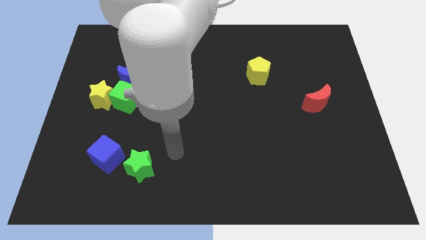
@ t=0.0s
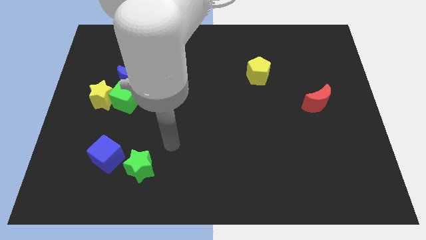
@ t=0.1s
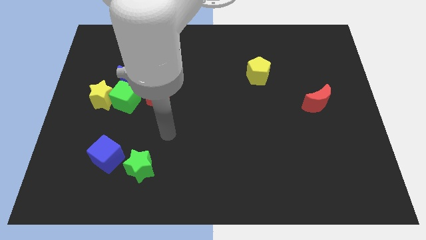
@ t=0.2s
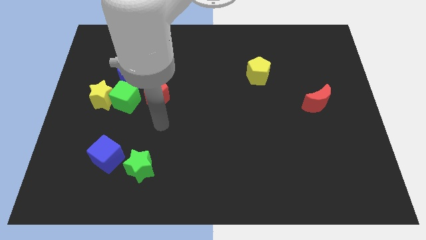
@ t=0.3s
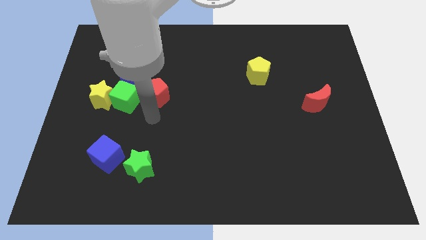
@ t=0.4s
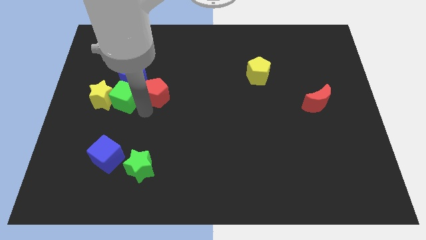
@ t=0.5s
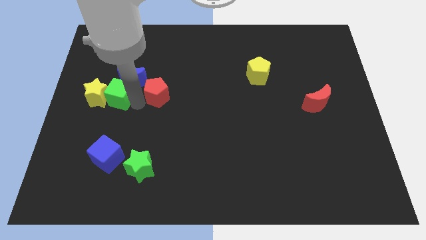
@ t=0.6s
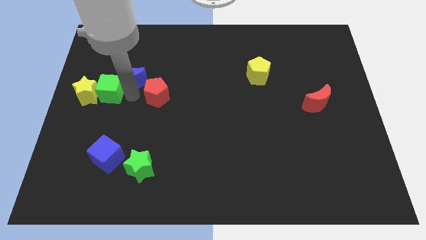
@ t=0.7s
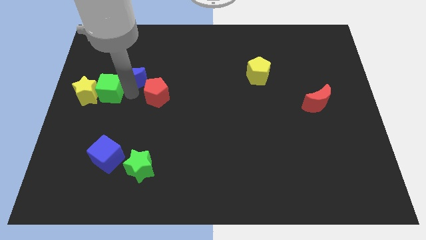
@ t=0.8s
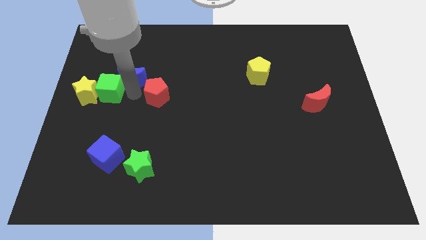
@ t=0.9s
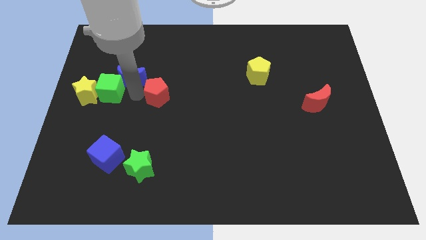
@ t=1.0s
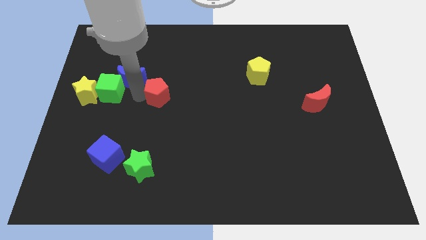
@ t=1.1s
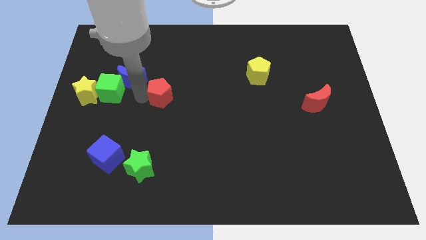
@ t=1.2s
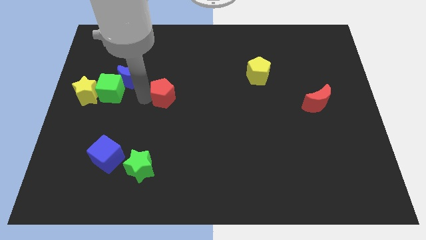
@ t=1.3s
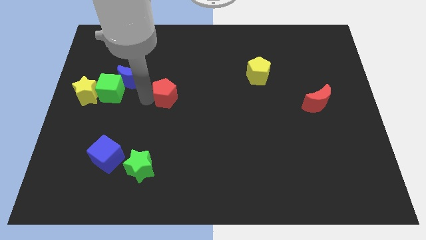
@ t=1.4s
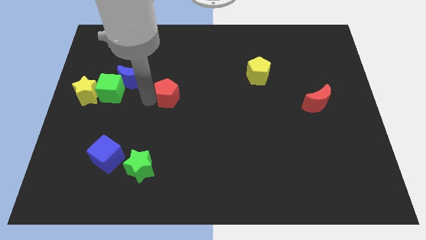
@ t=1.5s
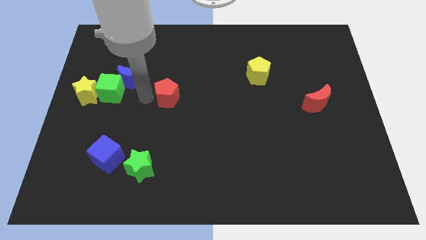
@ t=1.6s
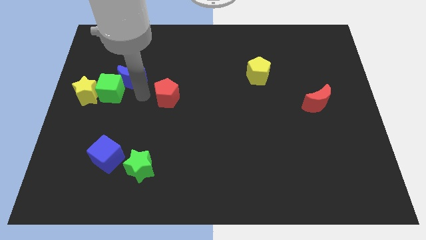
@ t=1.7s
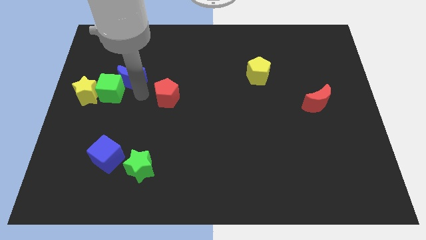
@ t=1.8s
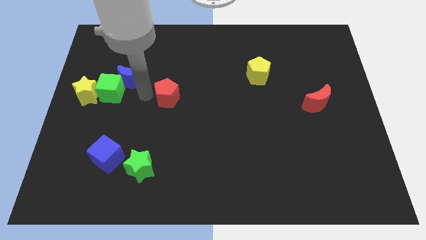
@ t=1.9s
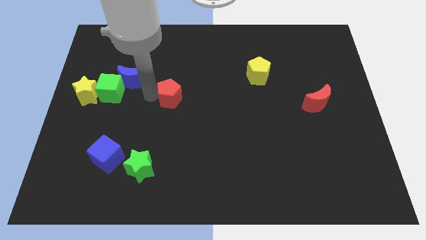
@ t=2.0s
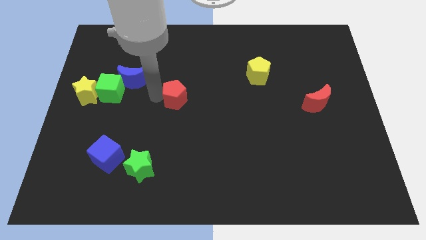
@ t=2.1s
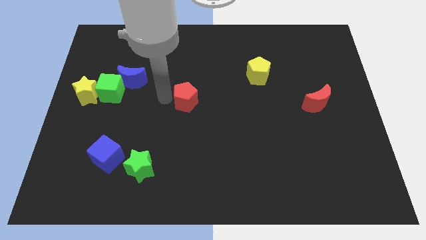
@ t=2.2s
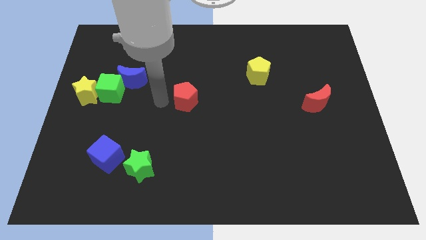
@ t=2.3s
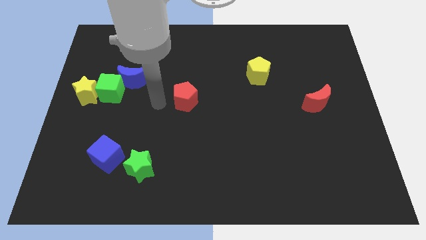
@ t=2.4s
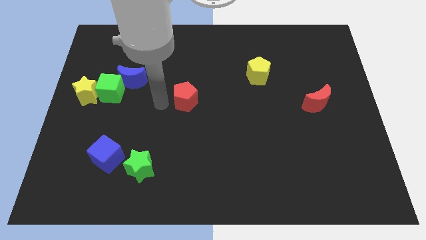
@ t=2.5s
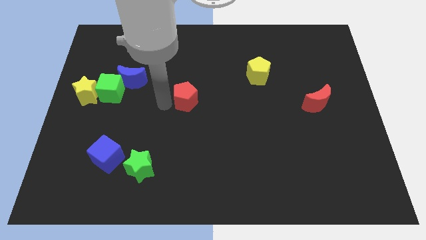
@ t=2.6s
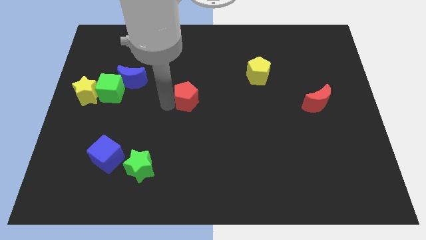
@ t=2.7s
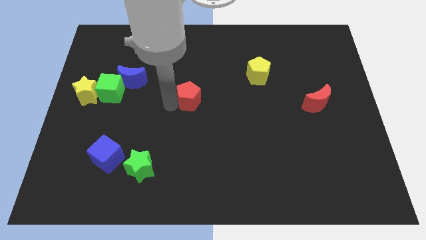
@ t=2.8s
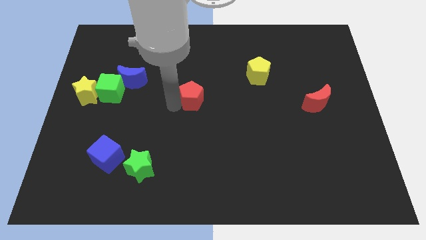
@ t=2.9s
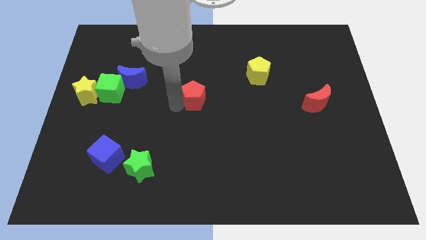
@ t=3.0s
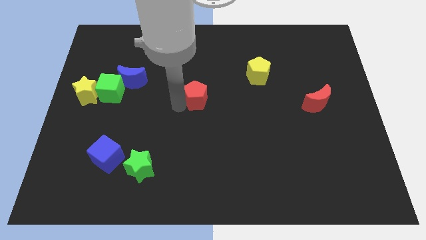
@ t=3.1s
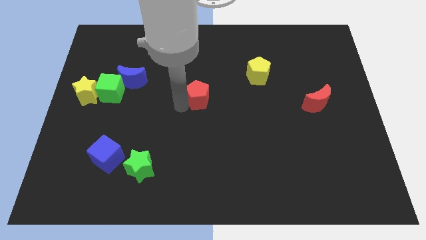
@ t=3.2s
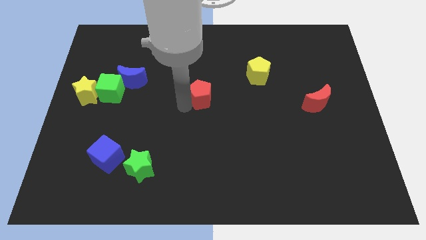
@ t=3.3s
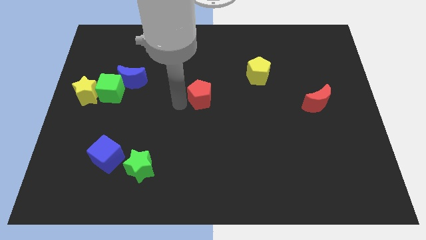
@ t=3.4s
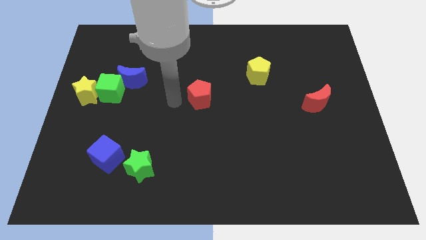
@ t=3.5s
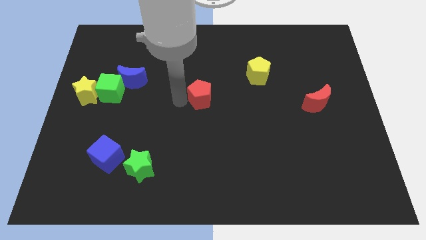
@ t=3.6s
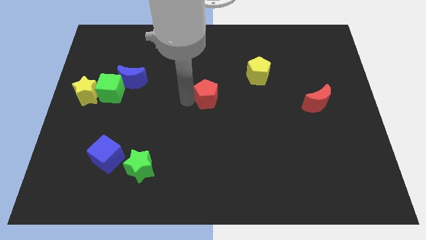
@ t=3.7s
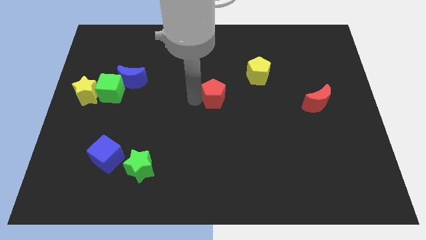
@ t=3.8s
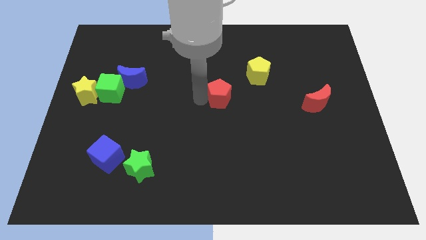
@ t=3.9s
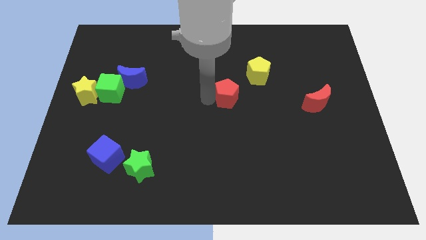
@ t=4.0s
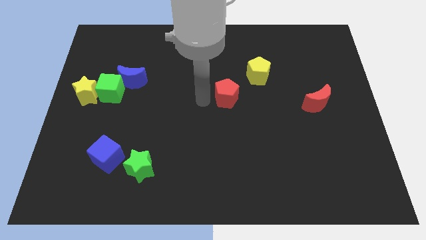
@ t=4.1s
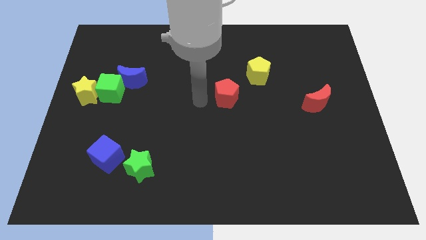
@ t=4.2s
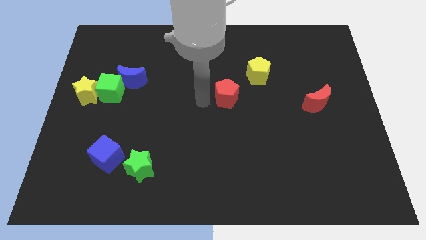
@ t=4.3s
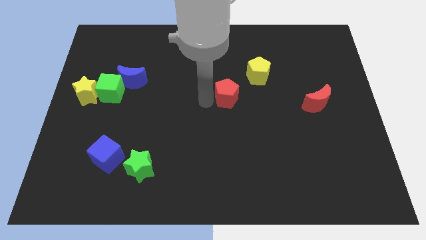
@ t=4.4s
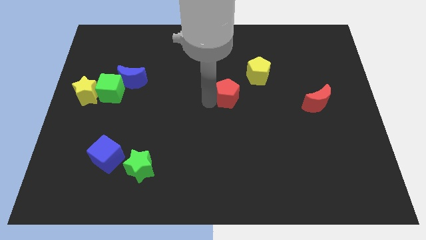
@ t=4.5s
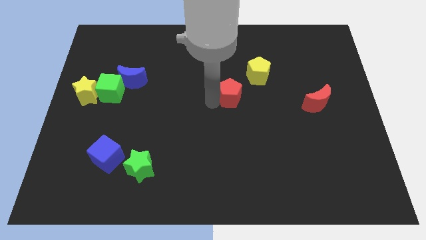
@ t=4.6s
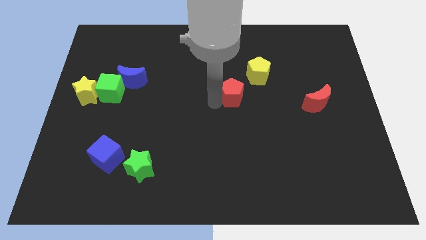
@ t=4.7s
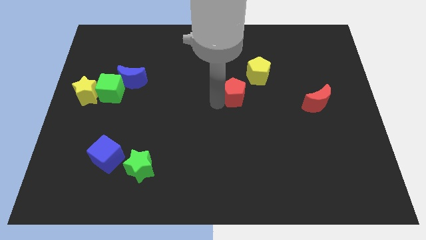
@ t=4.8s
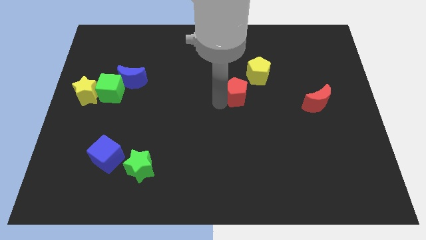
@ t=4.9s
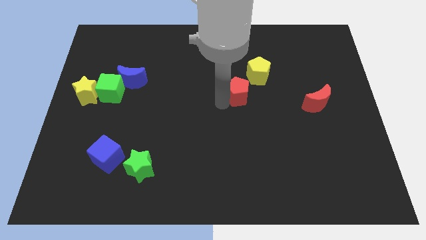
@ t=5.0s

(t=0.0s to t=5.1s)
slide the red pentagon right

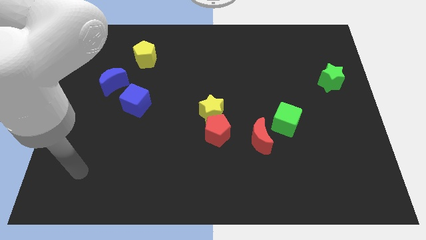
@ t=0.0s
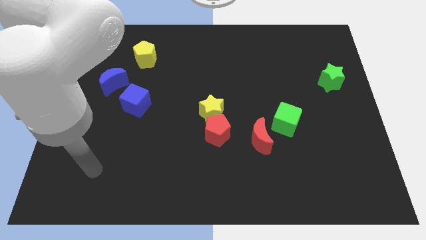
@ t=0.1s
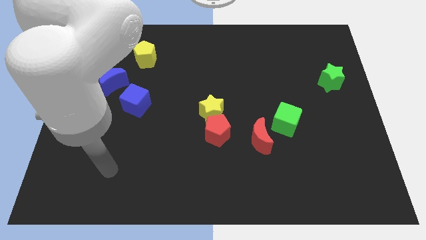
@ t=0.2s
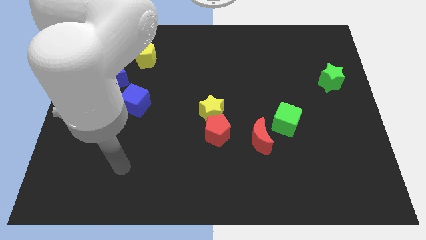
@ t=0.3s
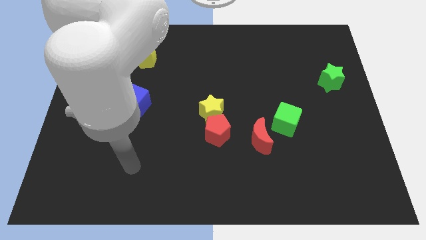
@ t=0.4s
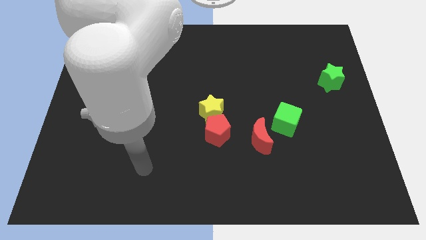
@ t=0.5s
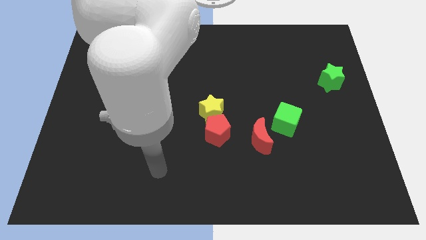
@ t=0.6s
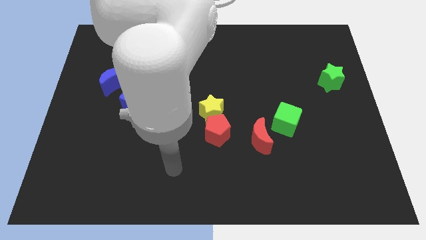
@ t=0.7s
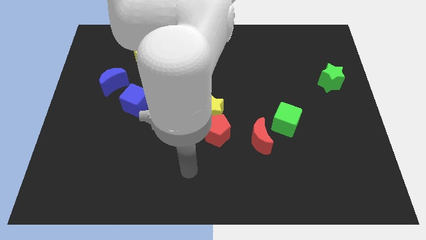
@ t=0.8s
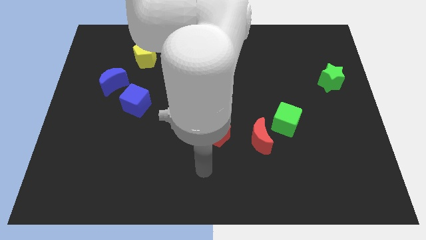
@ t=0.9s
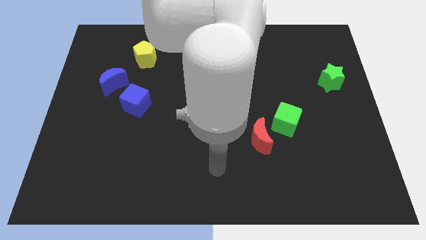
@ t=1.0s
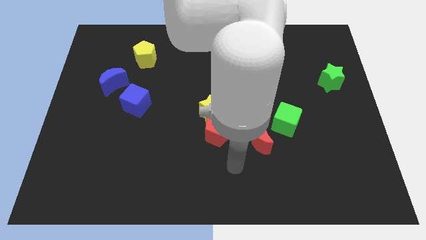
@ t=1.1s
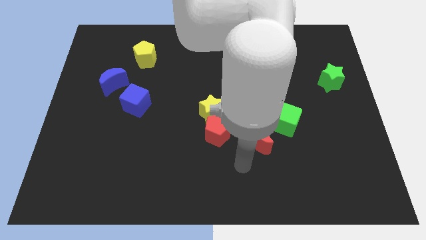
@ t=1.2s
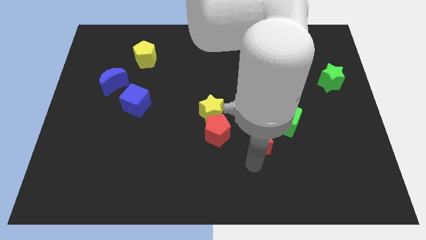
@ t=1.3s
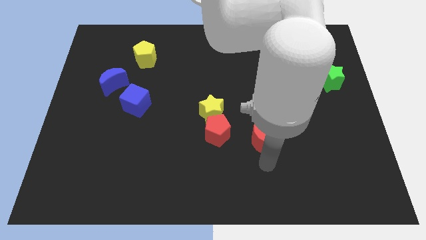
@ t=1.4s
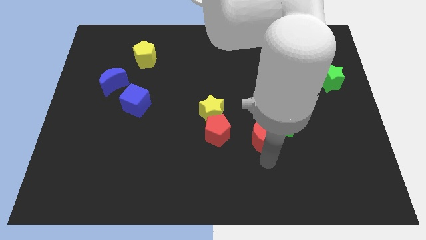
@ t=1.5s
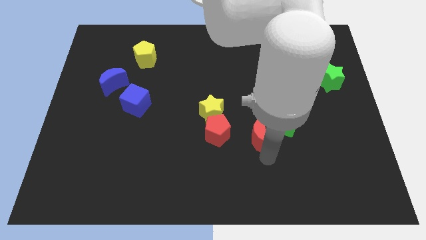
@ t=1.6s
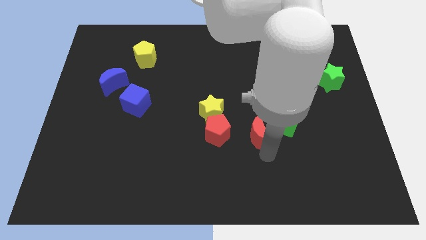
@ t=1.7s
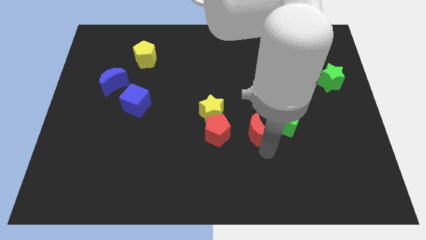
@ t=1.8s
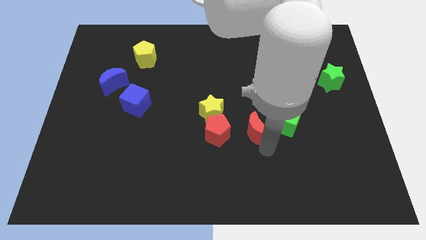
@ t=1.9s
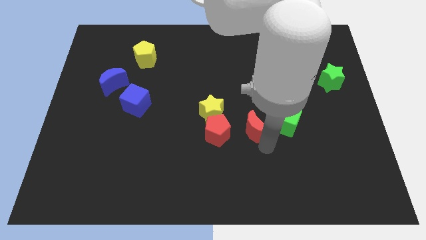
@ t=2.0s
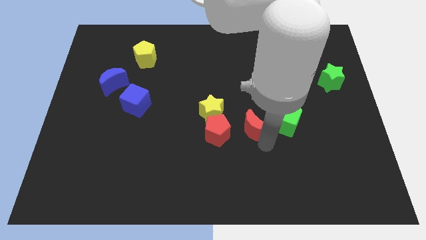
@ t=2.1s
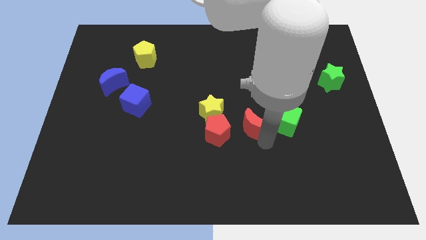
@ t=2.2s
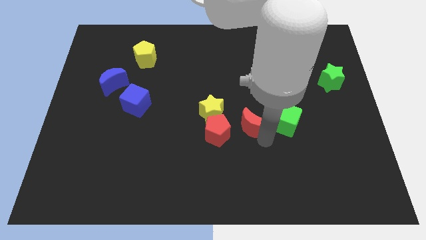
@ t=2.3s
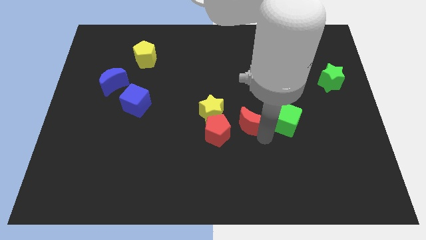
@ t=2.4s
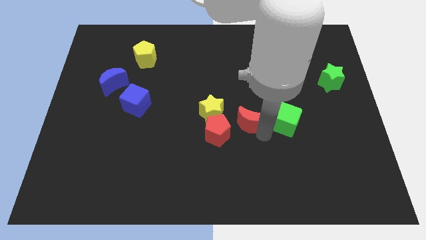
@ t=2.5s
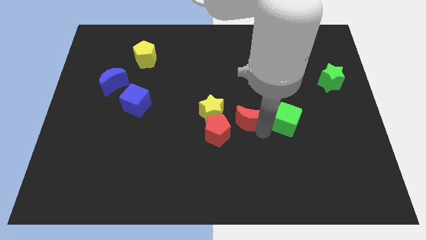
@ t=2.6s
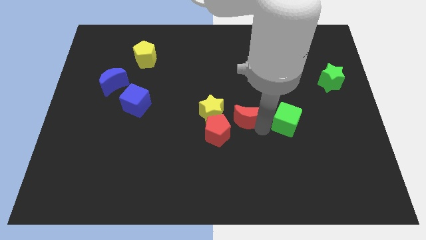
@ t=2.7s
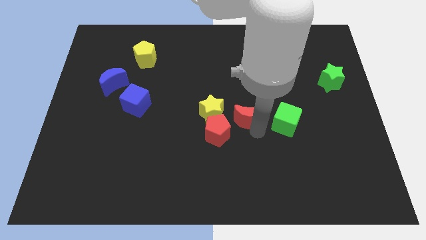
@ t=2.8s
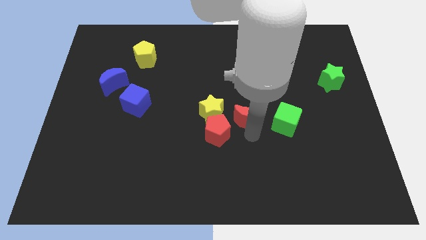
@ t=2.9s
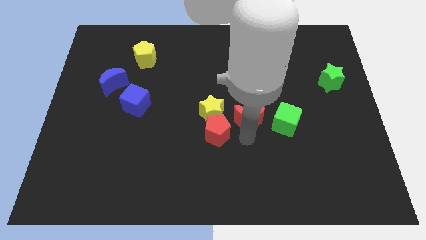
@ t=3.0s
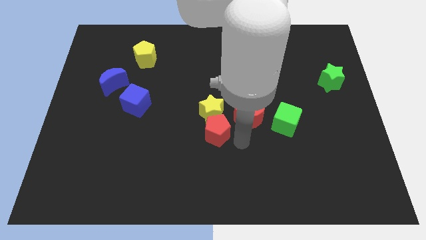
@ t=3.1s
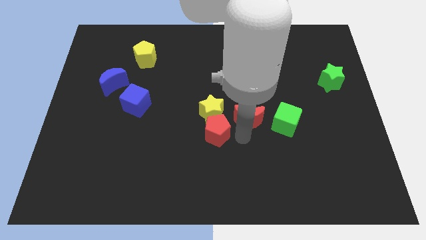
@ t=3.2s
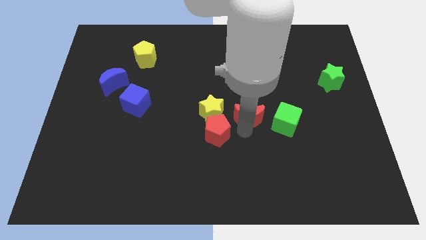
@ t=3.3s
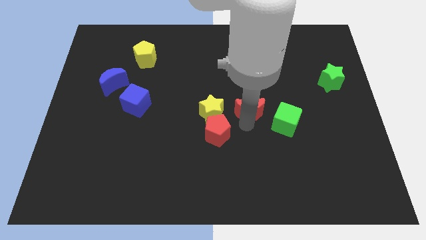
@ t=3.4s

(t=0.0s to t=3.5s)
slightly move the red moon upwards
